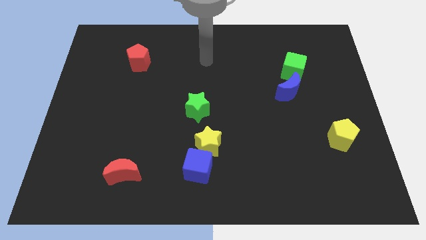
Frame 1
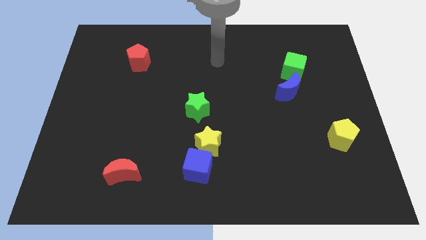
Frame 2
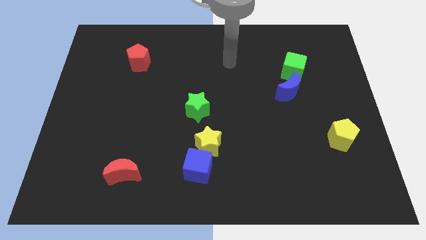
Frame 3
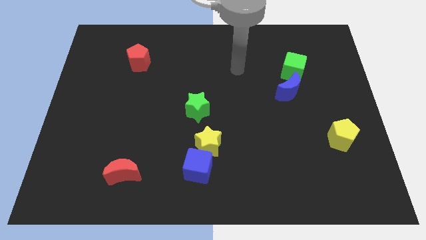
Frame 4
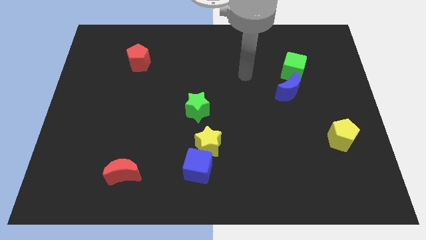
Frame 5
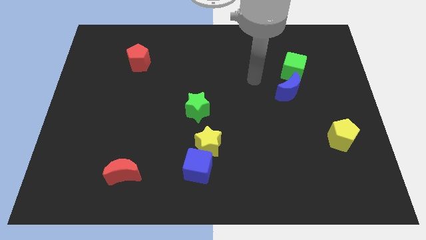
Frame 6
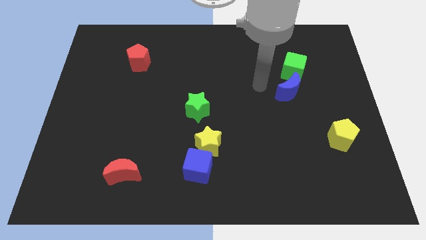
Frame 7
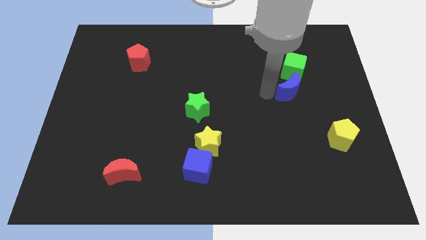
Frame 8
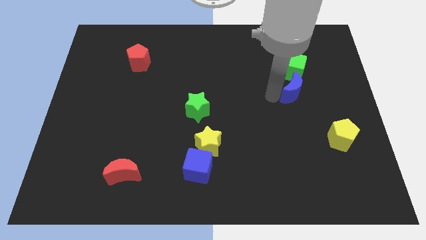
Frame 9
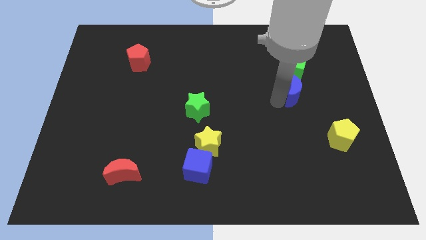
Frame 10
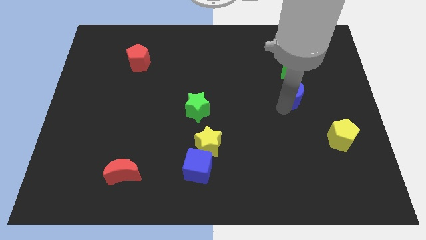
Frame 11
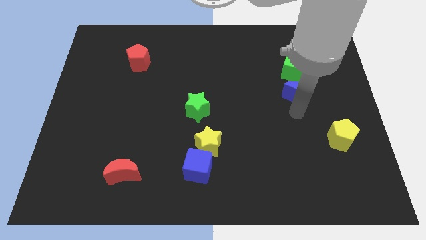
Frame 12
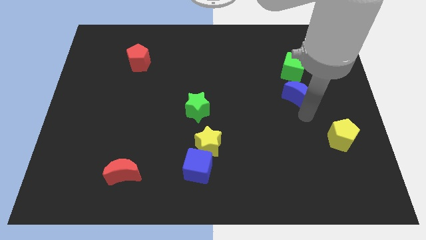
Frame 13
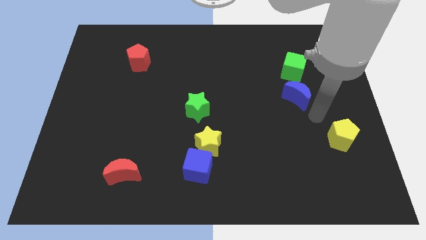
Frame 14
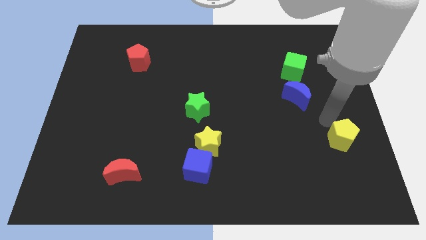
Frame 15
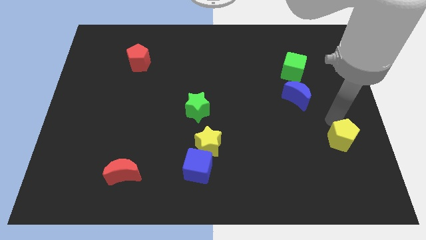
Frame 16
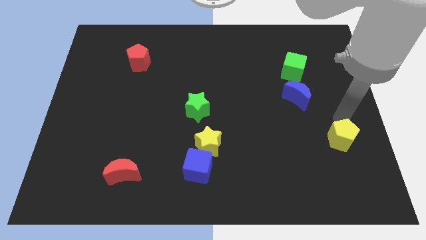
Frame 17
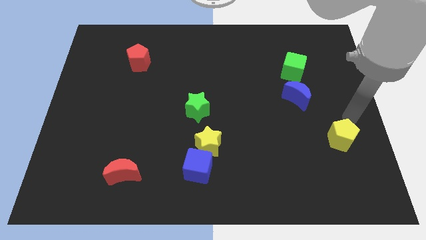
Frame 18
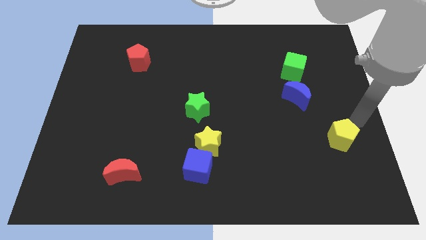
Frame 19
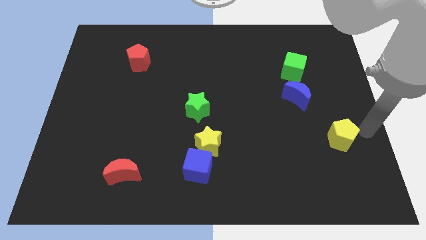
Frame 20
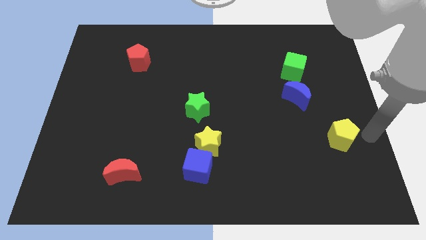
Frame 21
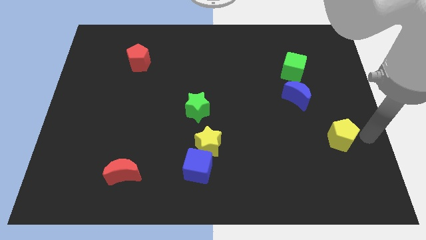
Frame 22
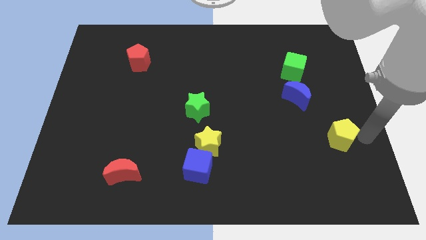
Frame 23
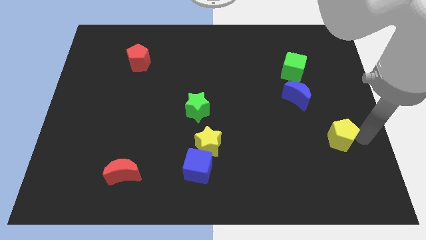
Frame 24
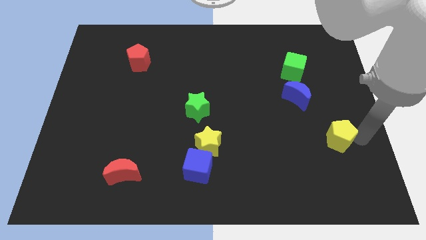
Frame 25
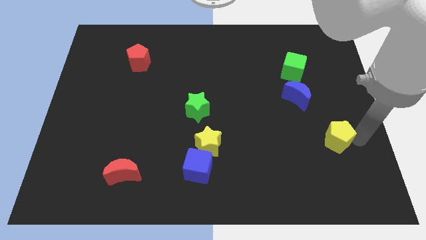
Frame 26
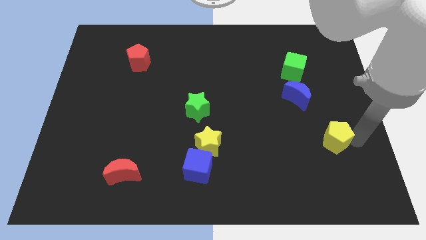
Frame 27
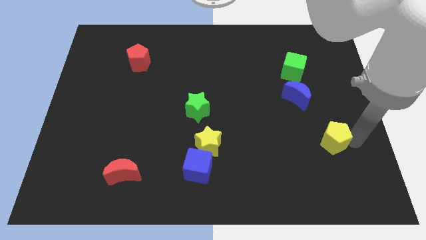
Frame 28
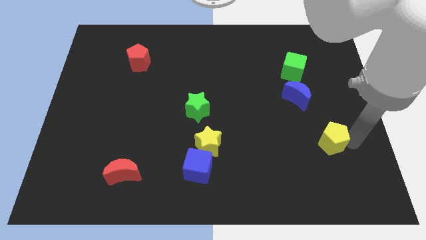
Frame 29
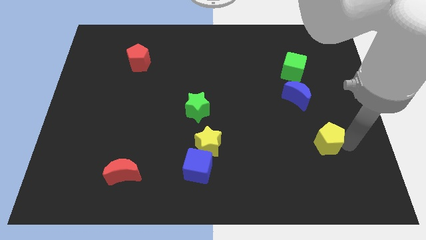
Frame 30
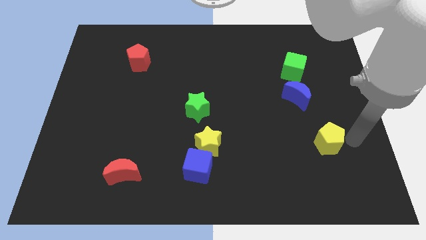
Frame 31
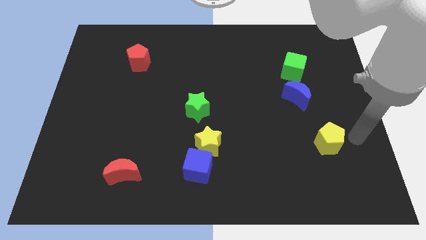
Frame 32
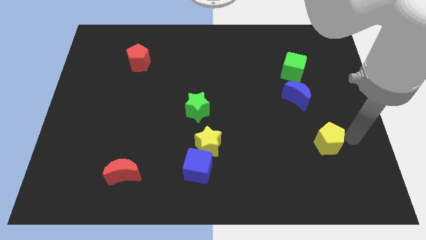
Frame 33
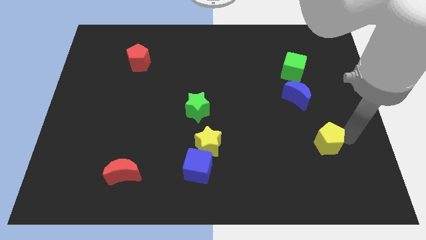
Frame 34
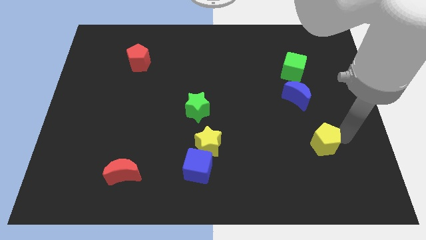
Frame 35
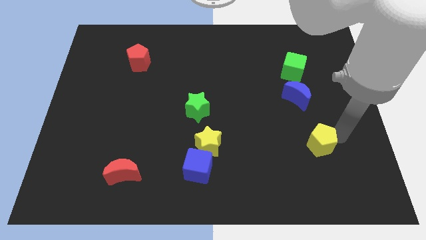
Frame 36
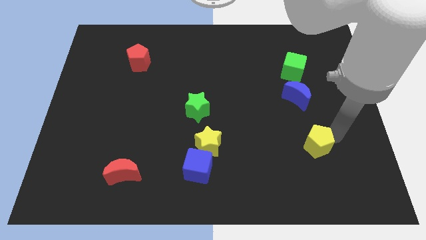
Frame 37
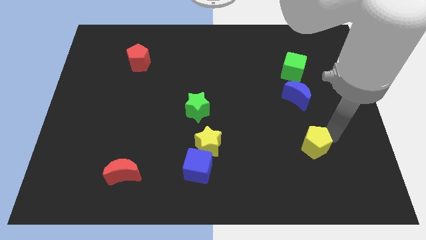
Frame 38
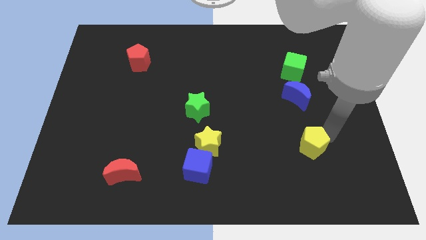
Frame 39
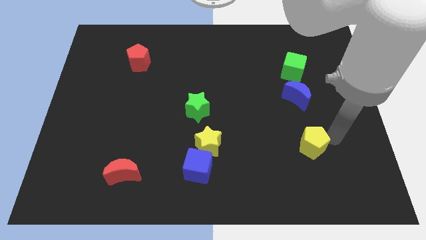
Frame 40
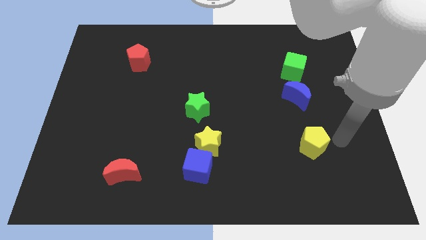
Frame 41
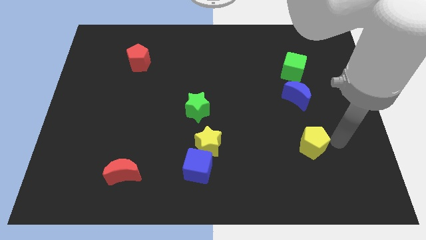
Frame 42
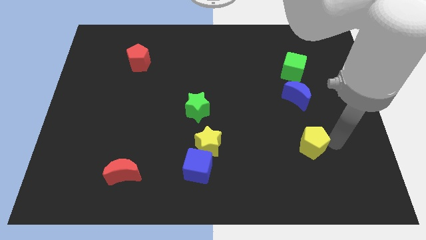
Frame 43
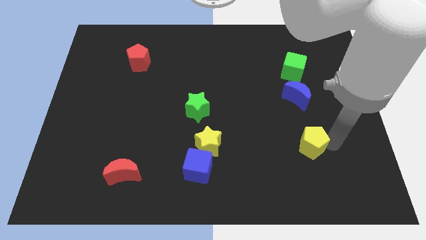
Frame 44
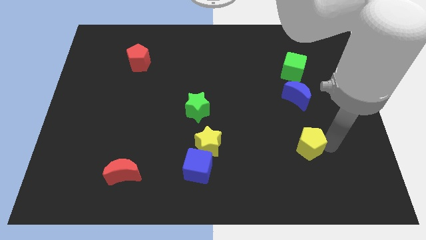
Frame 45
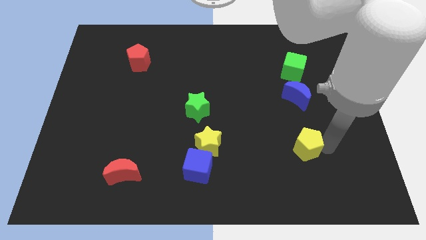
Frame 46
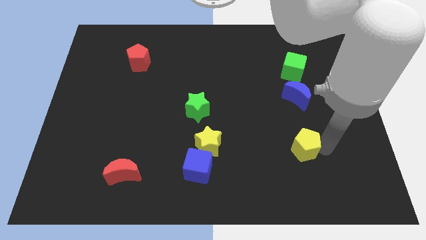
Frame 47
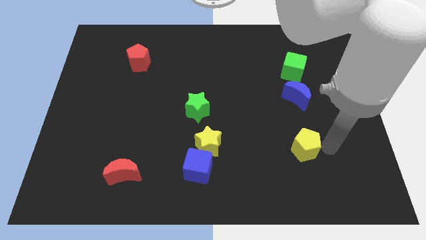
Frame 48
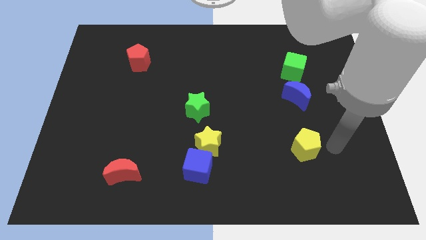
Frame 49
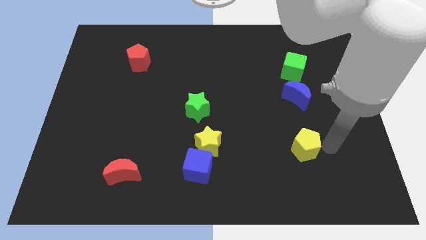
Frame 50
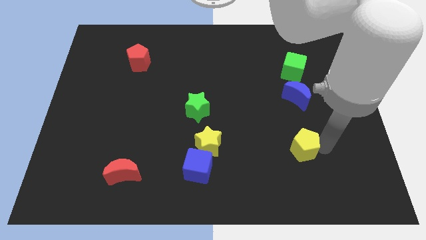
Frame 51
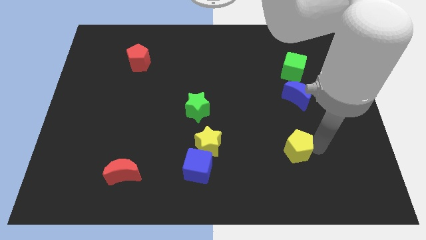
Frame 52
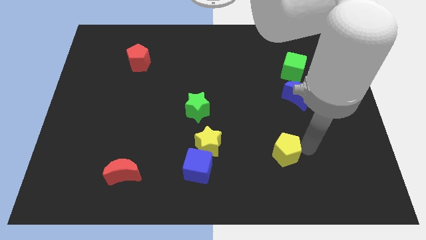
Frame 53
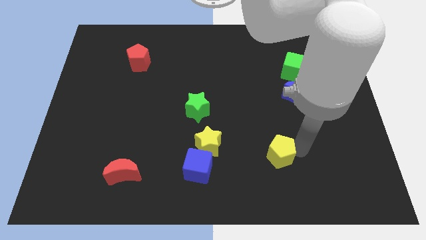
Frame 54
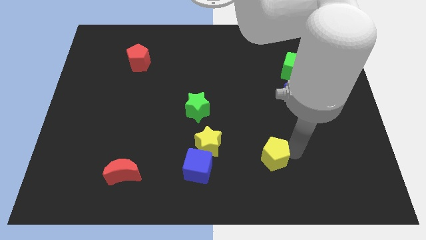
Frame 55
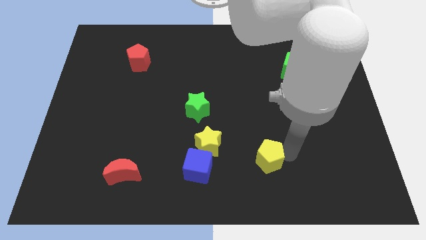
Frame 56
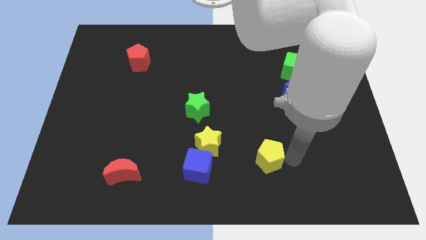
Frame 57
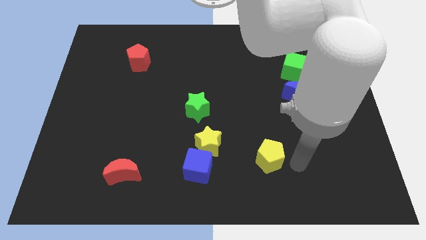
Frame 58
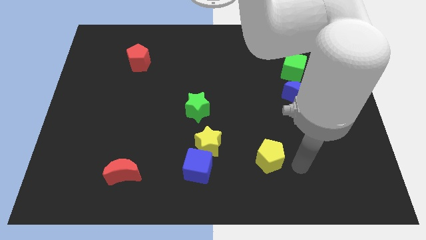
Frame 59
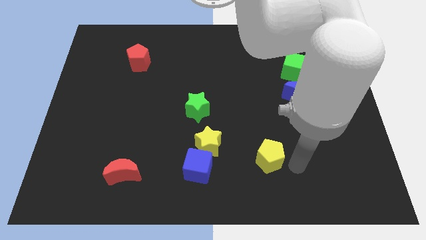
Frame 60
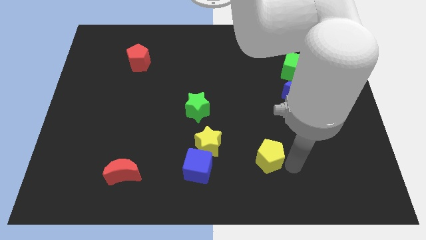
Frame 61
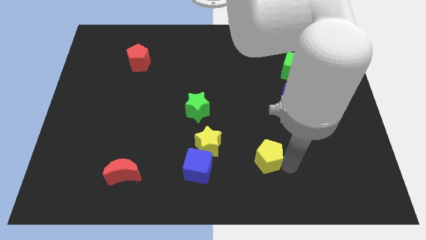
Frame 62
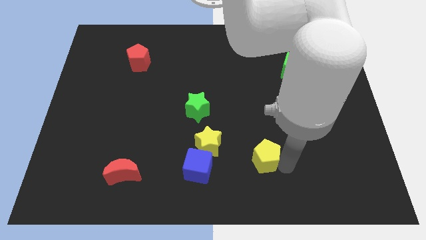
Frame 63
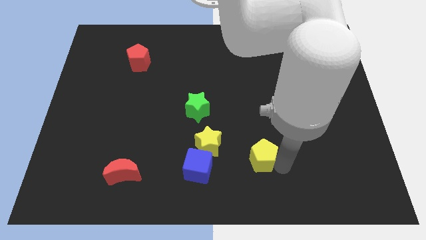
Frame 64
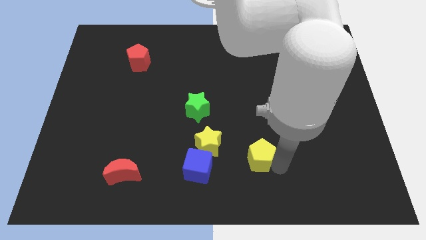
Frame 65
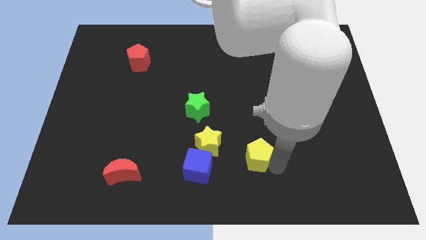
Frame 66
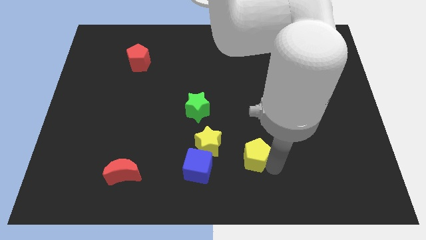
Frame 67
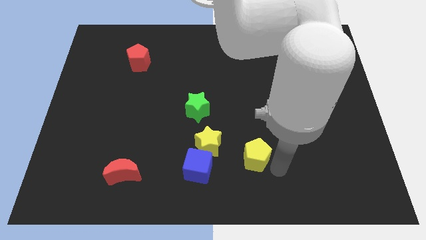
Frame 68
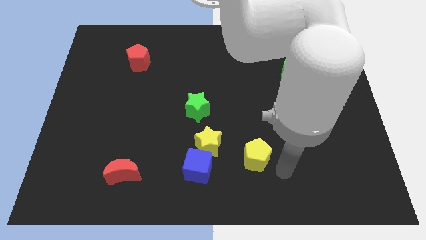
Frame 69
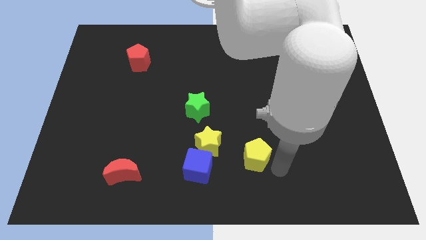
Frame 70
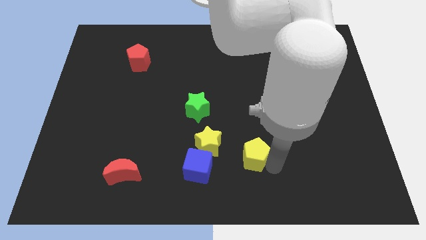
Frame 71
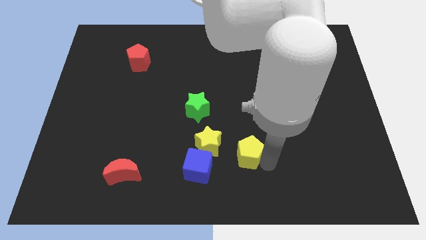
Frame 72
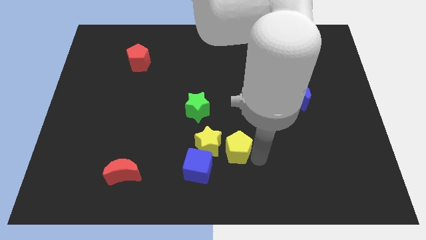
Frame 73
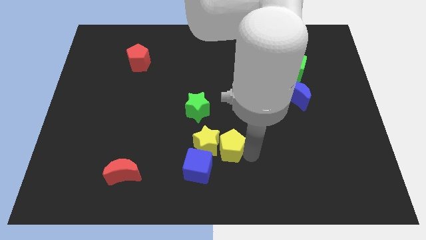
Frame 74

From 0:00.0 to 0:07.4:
put the yellow pentagon towards the yellow star

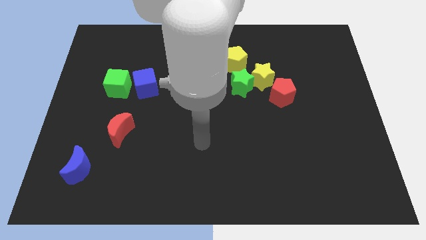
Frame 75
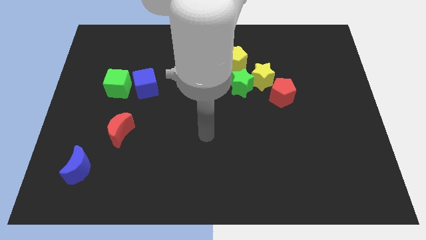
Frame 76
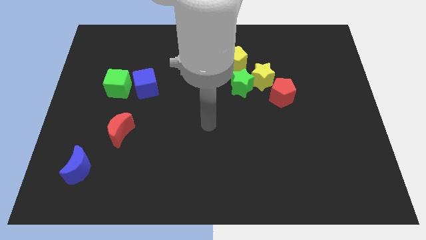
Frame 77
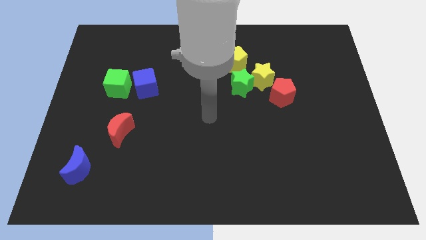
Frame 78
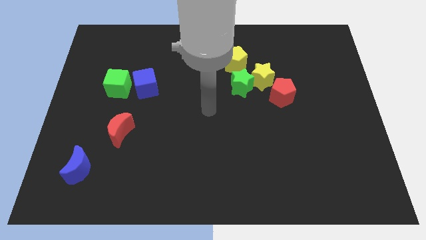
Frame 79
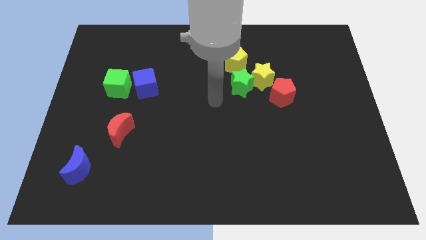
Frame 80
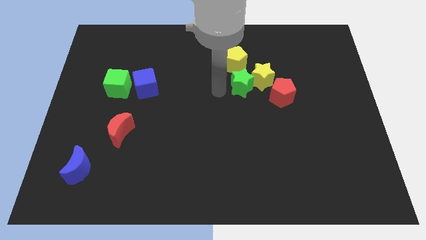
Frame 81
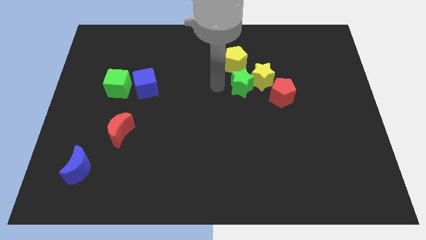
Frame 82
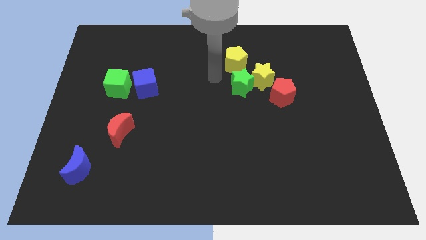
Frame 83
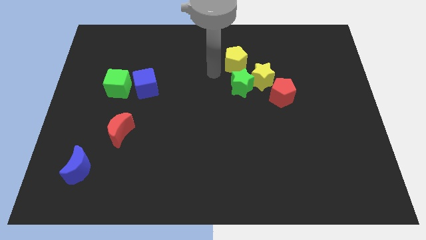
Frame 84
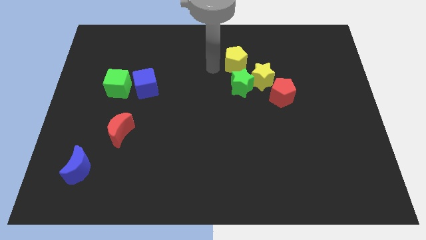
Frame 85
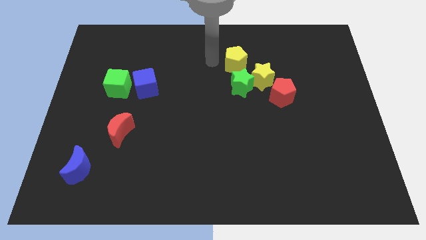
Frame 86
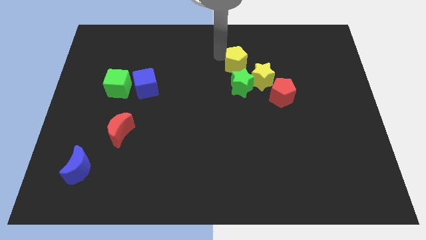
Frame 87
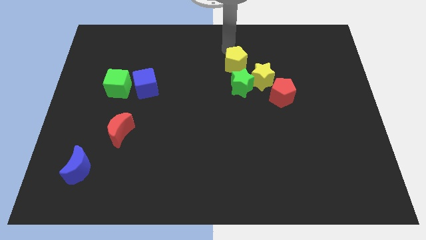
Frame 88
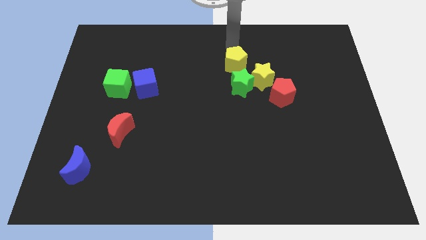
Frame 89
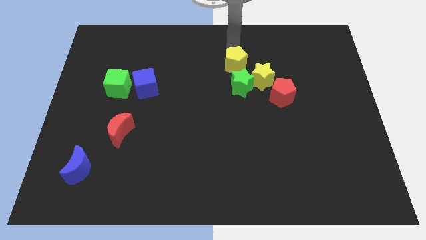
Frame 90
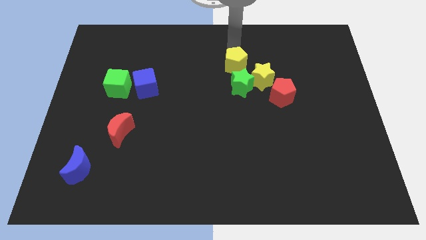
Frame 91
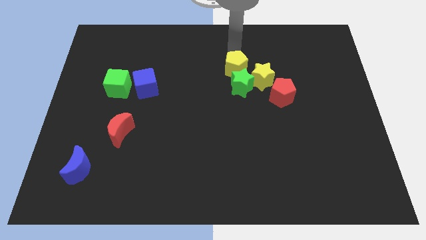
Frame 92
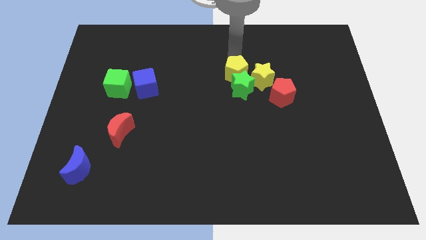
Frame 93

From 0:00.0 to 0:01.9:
push the yellow pentagon next to the green star
